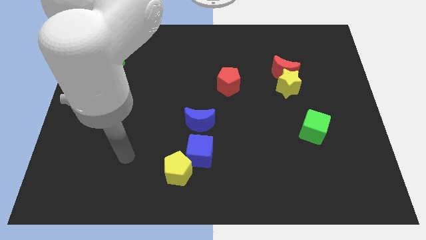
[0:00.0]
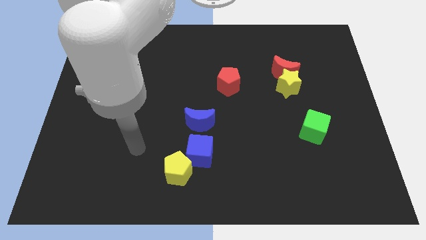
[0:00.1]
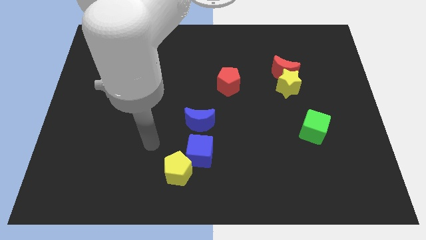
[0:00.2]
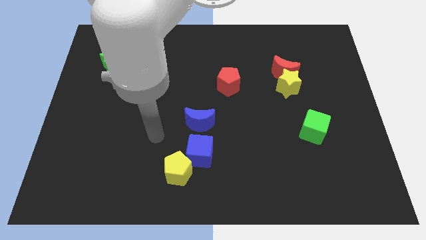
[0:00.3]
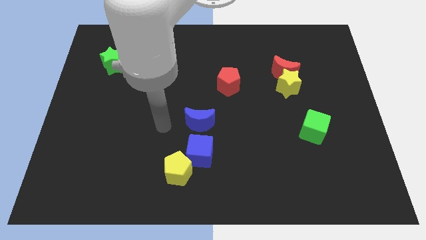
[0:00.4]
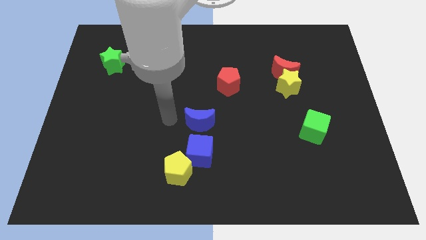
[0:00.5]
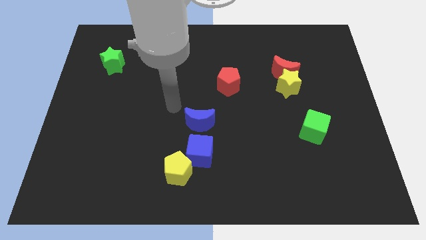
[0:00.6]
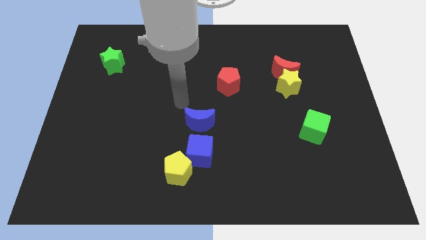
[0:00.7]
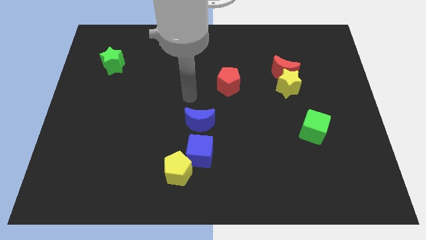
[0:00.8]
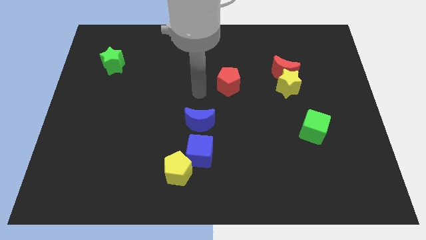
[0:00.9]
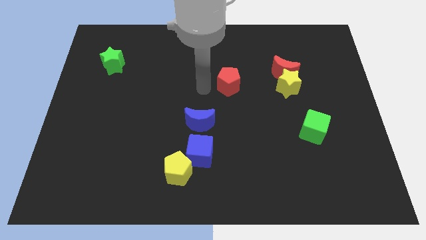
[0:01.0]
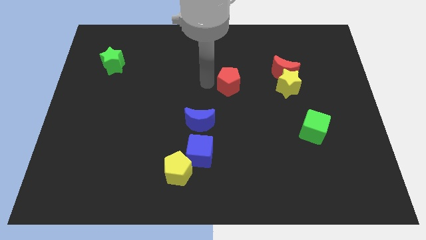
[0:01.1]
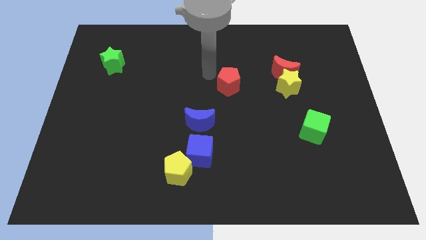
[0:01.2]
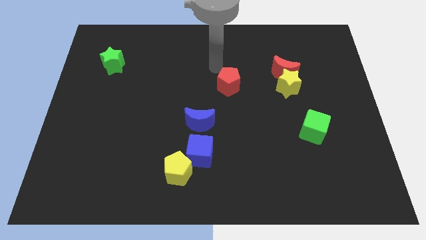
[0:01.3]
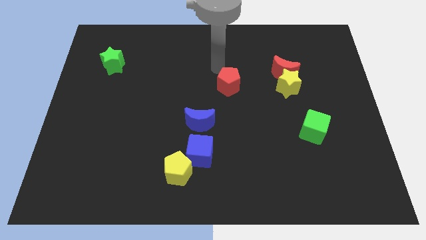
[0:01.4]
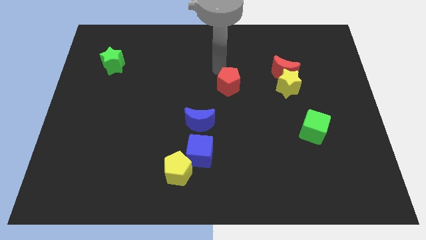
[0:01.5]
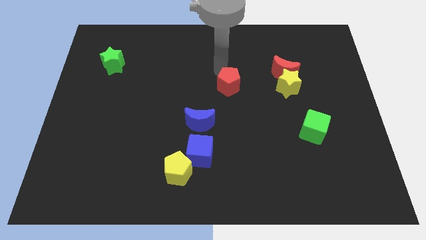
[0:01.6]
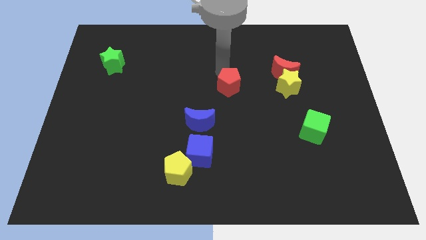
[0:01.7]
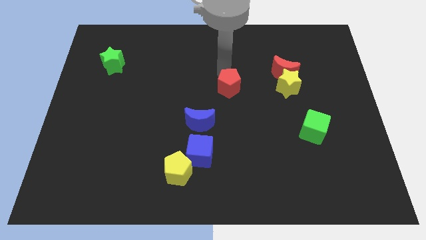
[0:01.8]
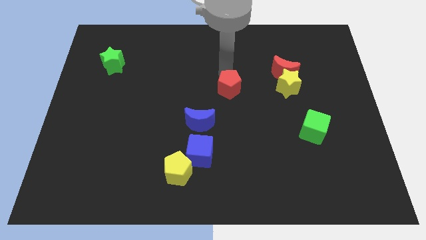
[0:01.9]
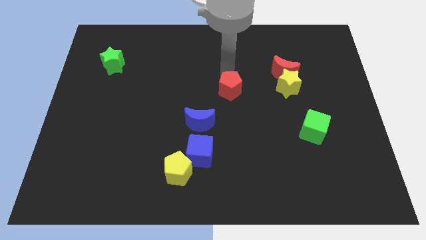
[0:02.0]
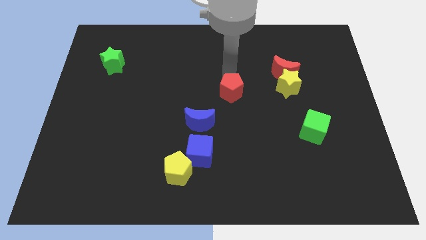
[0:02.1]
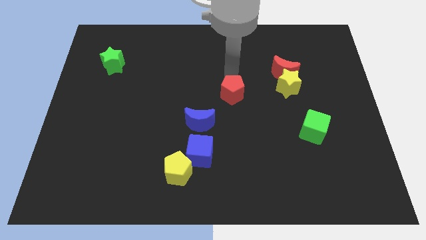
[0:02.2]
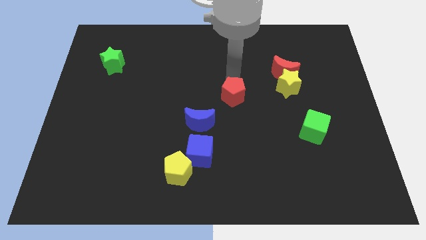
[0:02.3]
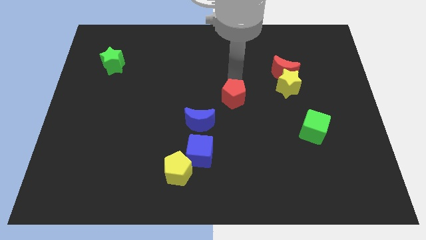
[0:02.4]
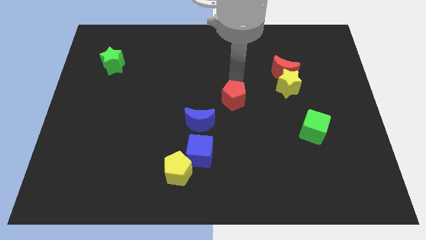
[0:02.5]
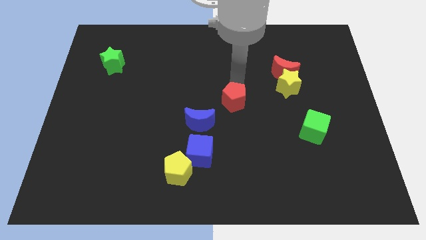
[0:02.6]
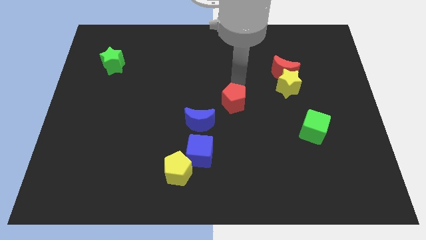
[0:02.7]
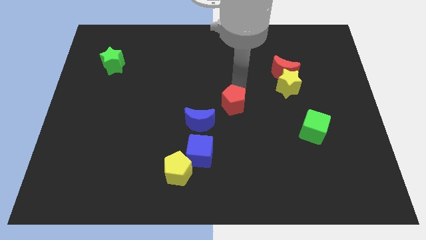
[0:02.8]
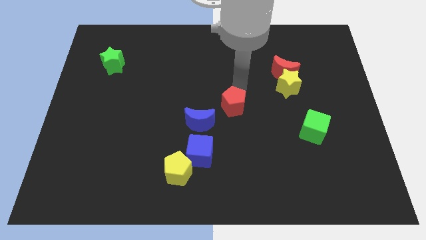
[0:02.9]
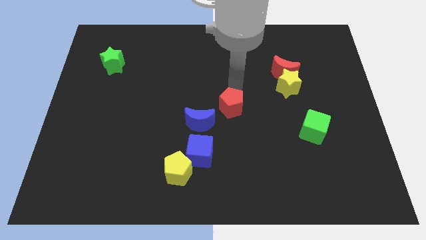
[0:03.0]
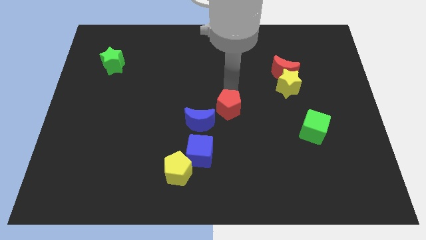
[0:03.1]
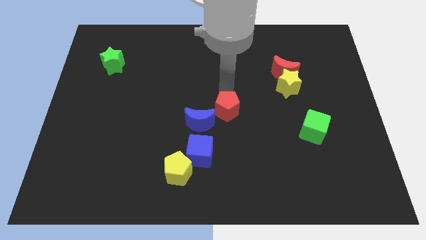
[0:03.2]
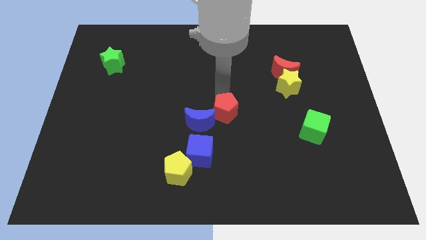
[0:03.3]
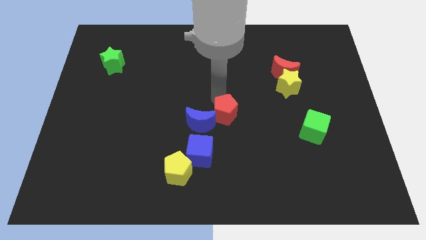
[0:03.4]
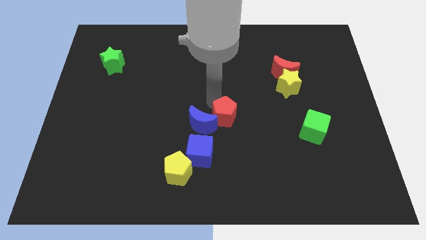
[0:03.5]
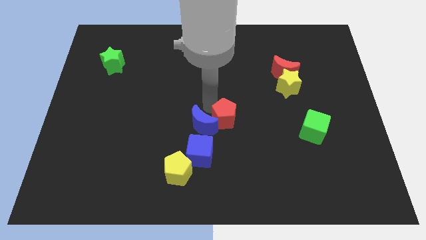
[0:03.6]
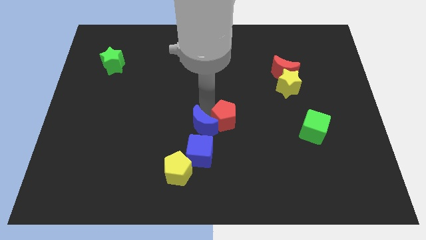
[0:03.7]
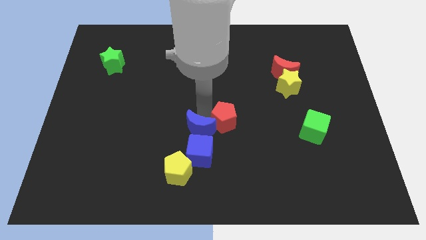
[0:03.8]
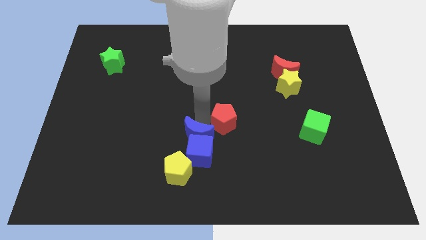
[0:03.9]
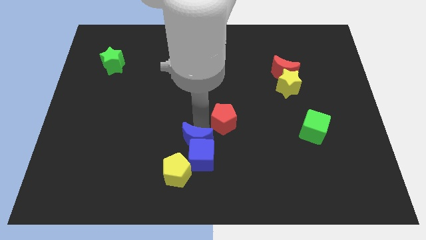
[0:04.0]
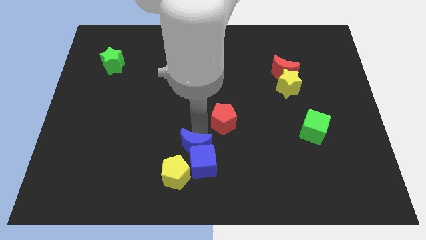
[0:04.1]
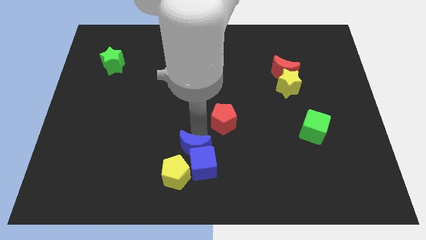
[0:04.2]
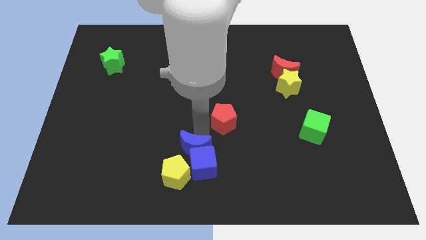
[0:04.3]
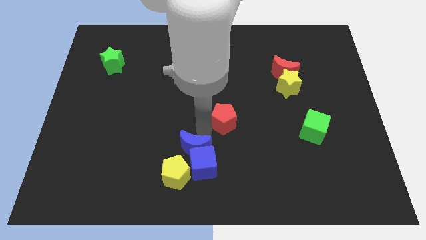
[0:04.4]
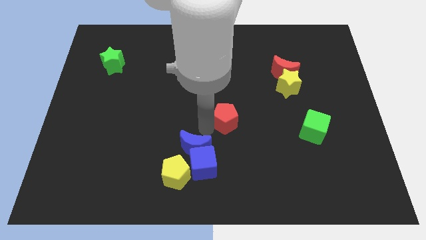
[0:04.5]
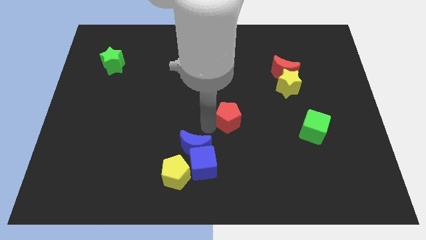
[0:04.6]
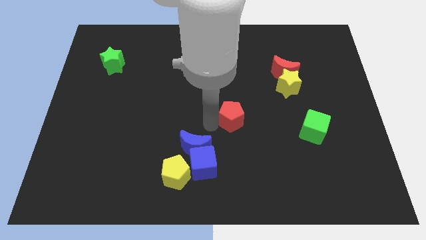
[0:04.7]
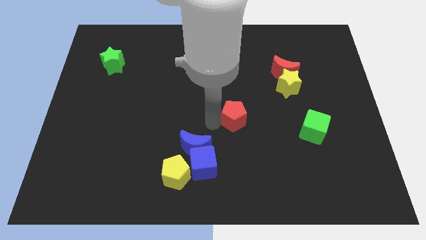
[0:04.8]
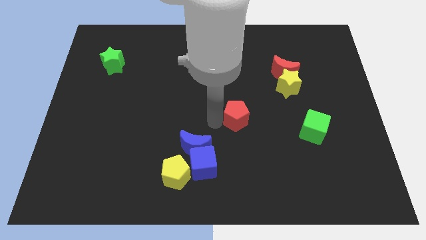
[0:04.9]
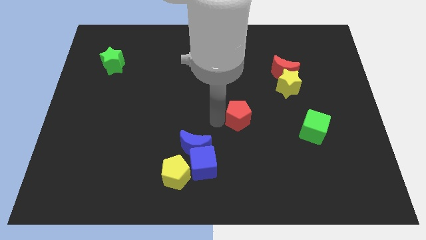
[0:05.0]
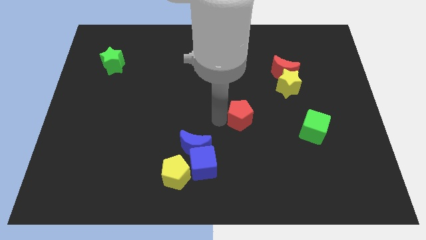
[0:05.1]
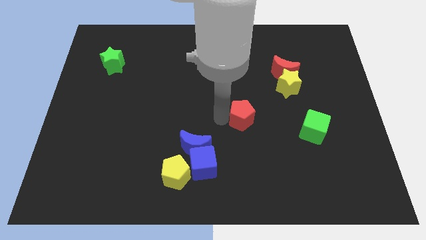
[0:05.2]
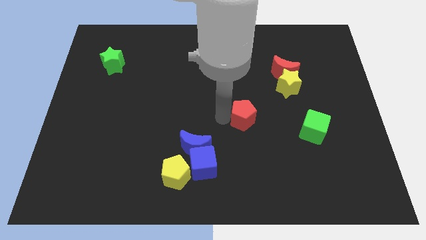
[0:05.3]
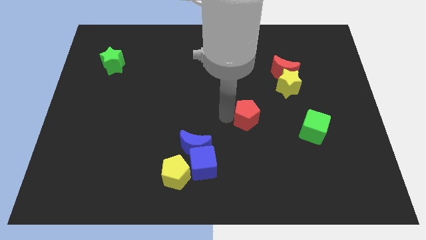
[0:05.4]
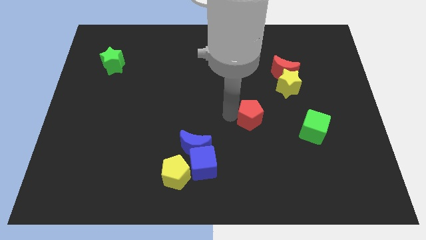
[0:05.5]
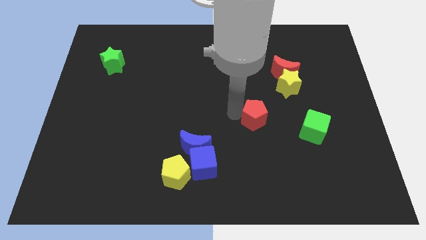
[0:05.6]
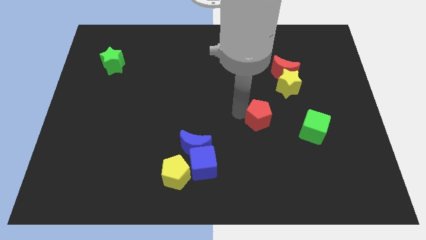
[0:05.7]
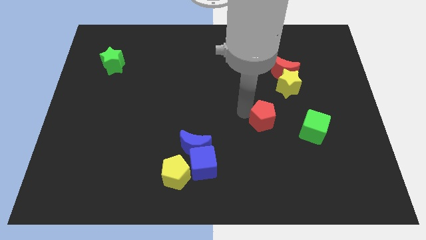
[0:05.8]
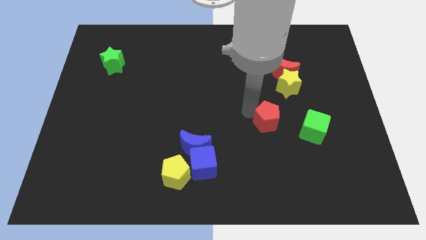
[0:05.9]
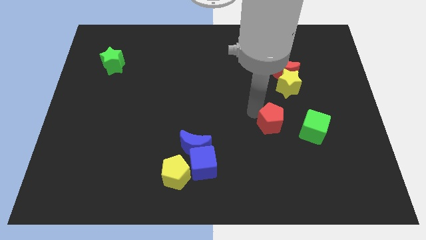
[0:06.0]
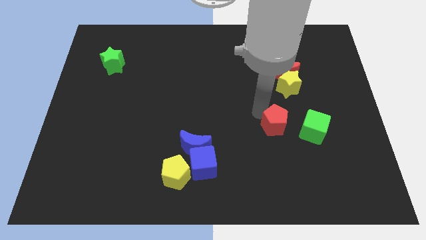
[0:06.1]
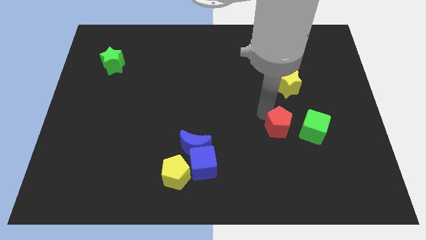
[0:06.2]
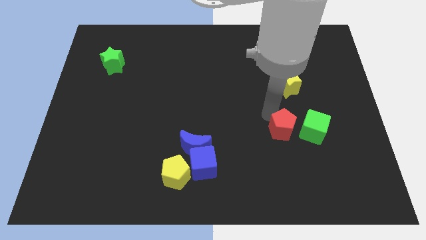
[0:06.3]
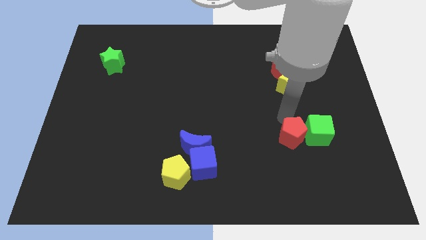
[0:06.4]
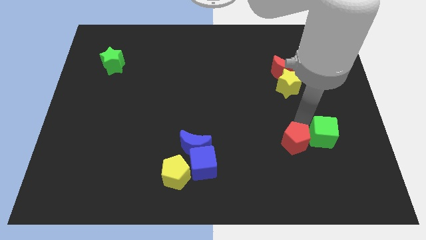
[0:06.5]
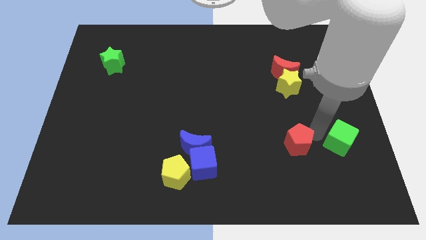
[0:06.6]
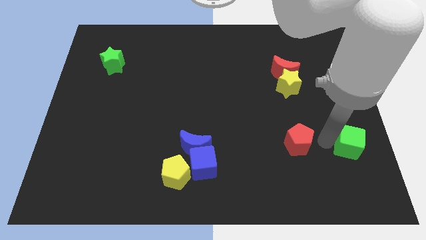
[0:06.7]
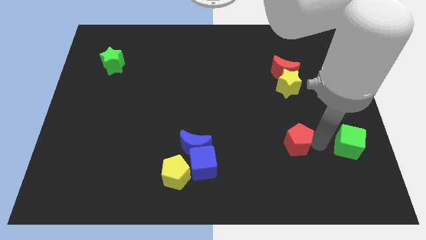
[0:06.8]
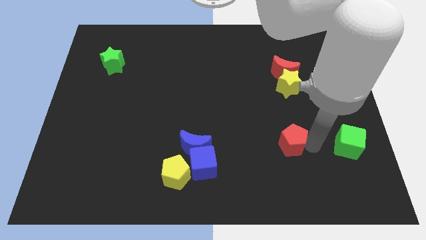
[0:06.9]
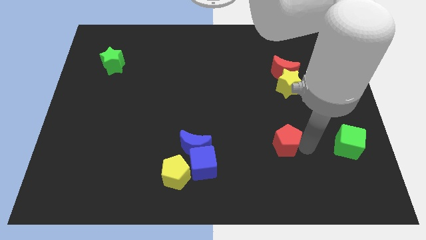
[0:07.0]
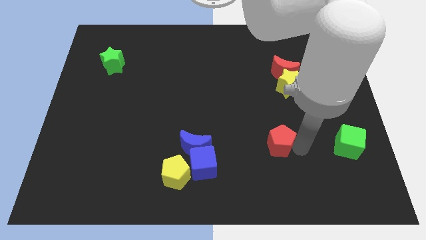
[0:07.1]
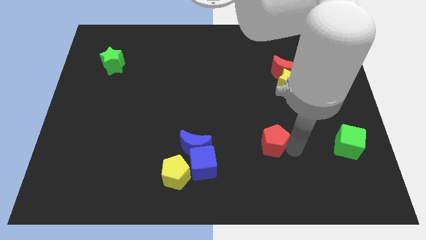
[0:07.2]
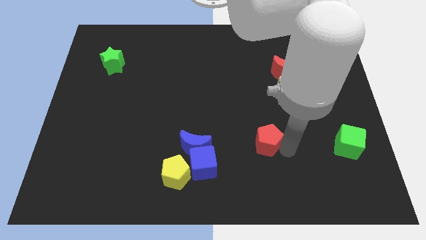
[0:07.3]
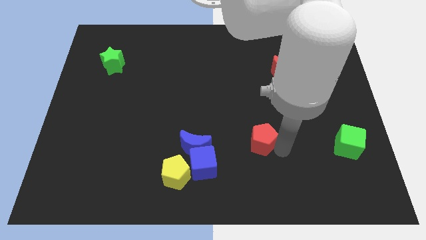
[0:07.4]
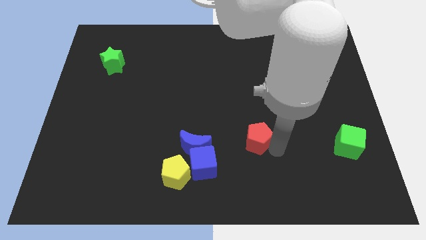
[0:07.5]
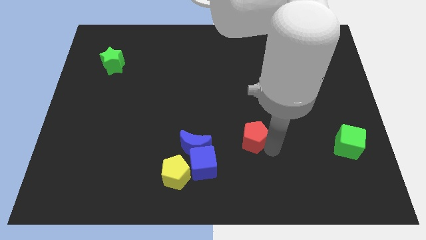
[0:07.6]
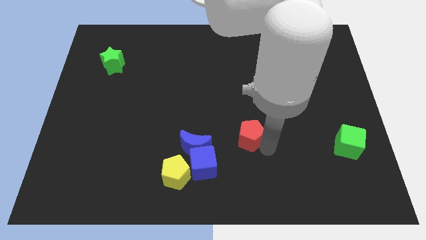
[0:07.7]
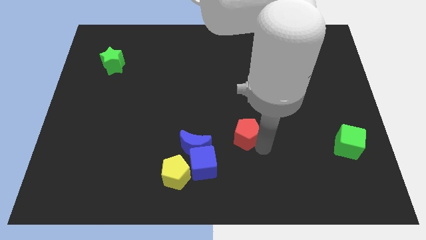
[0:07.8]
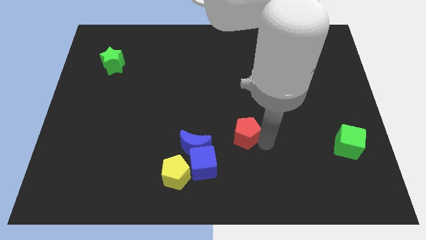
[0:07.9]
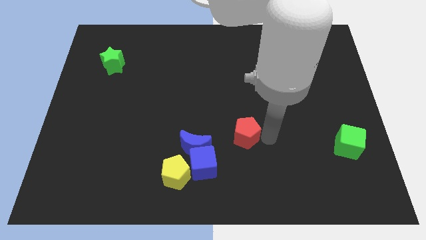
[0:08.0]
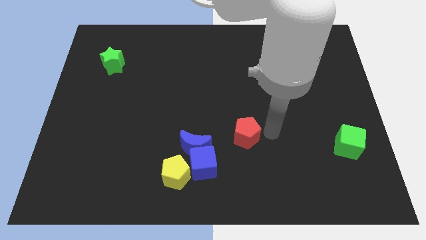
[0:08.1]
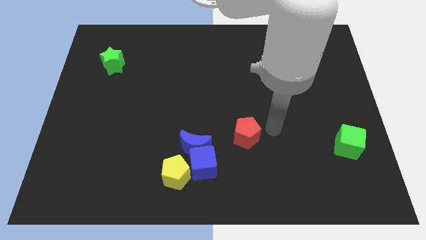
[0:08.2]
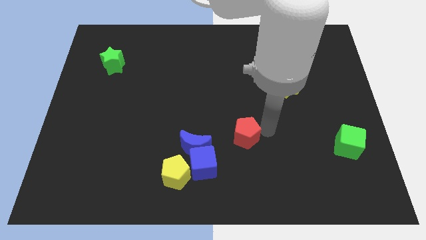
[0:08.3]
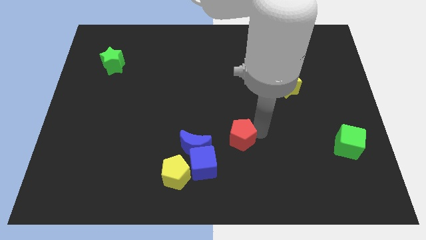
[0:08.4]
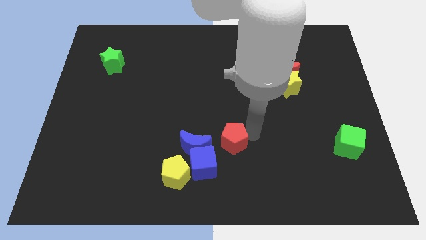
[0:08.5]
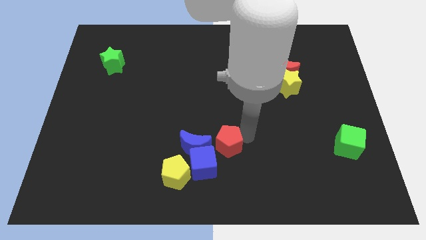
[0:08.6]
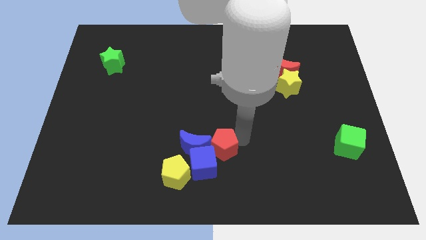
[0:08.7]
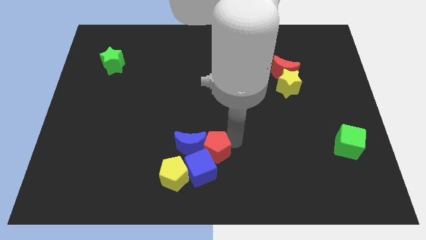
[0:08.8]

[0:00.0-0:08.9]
push the red pentagon towards the blue cube
